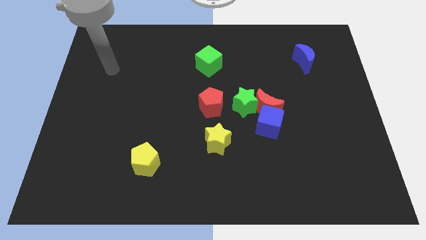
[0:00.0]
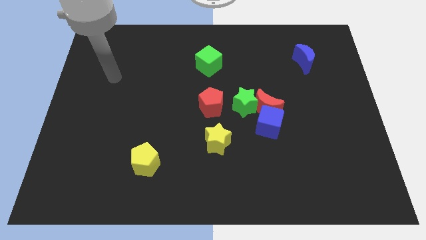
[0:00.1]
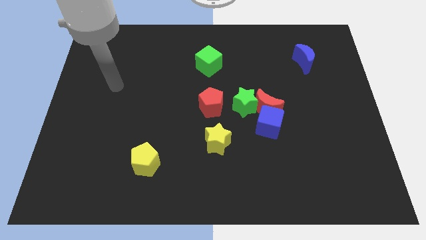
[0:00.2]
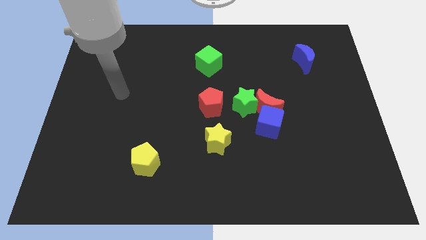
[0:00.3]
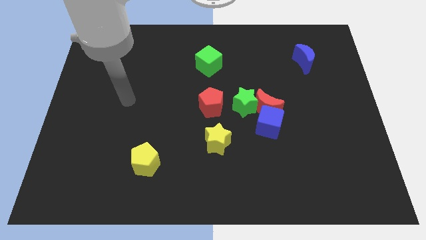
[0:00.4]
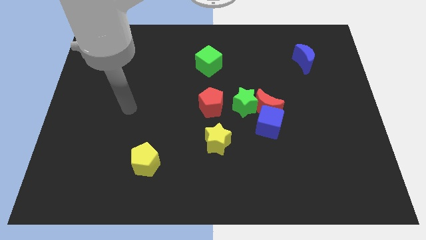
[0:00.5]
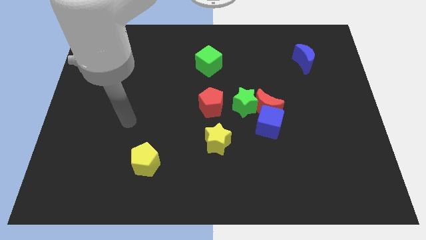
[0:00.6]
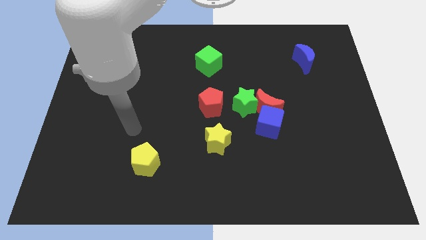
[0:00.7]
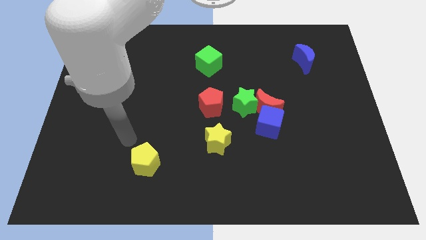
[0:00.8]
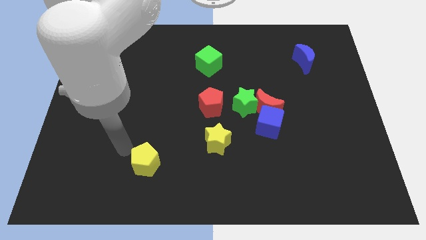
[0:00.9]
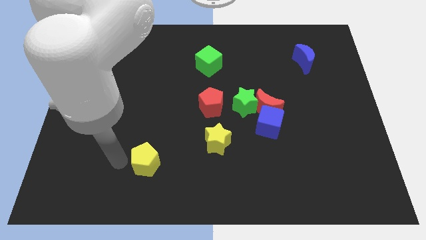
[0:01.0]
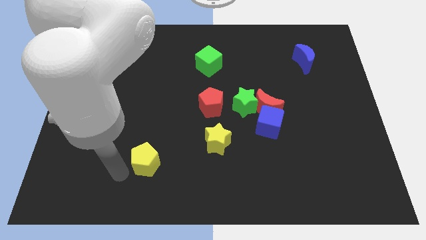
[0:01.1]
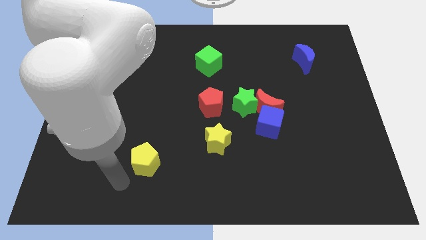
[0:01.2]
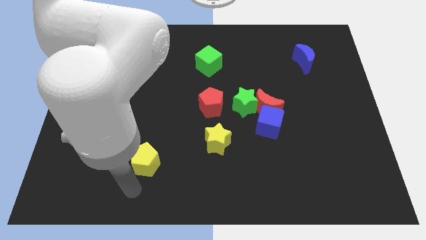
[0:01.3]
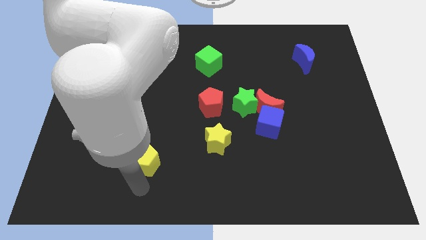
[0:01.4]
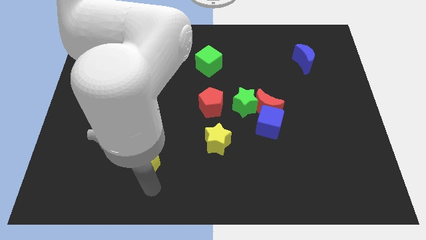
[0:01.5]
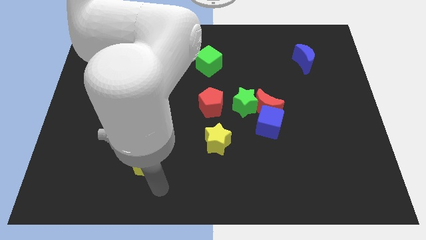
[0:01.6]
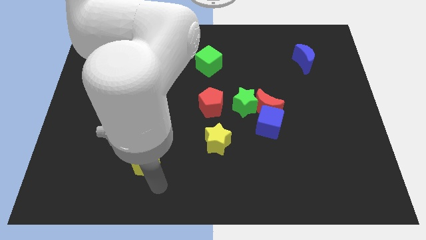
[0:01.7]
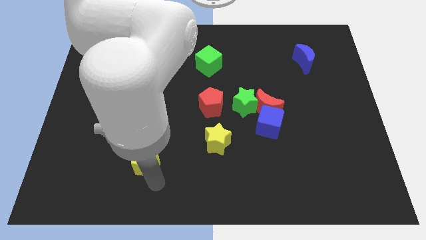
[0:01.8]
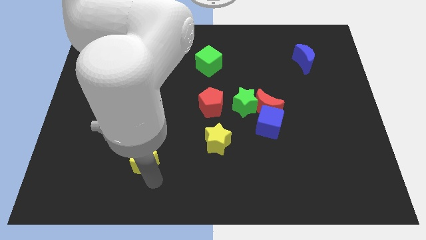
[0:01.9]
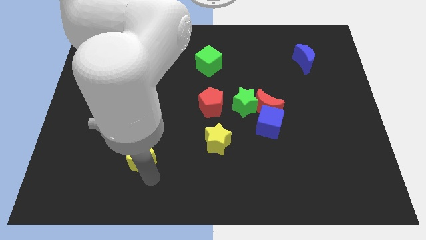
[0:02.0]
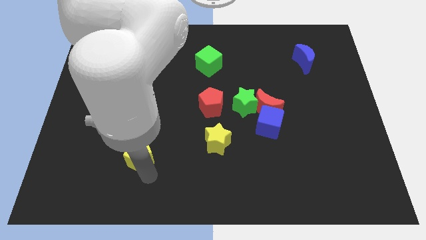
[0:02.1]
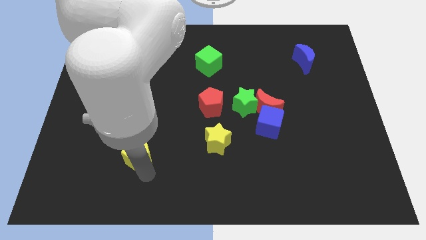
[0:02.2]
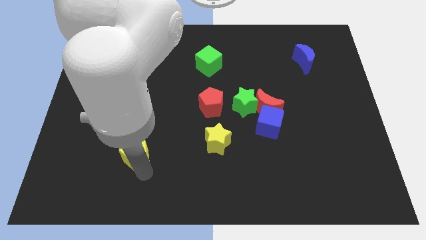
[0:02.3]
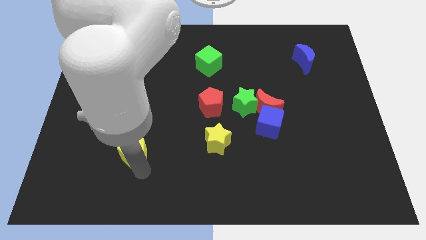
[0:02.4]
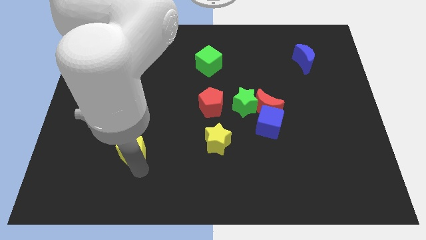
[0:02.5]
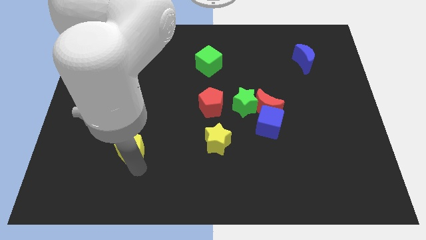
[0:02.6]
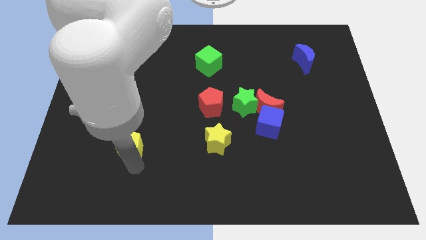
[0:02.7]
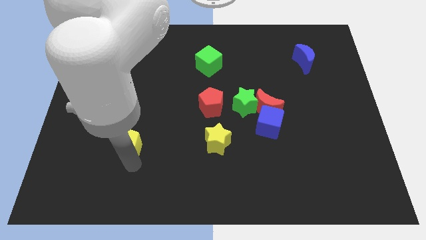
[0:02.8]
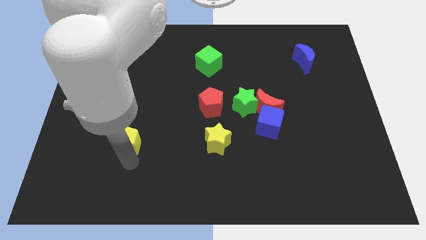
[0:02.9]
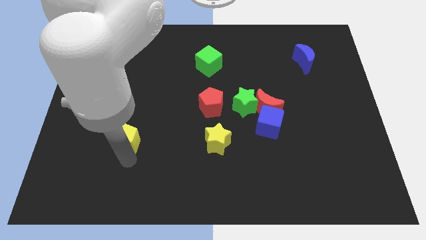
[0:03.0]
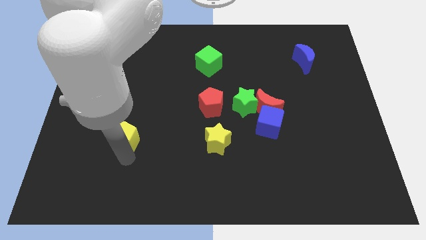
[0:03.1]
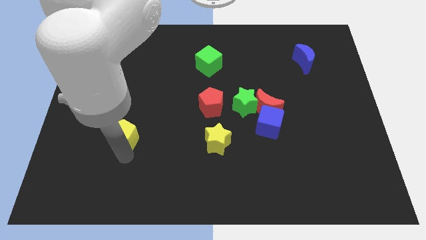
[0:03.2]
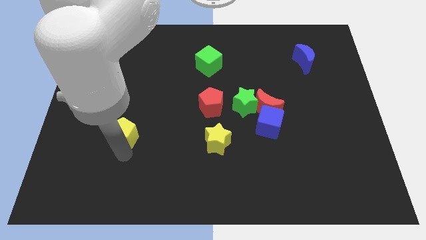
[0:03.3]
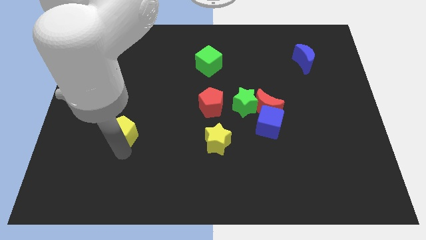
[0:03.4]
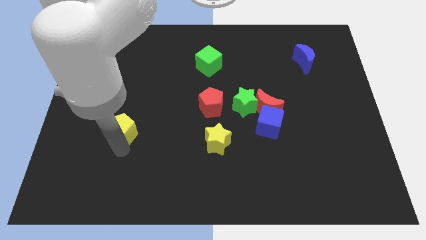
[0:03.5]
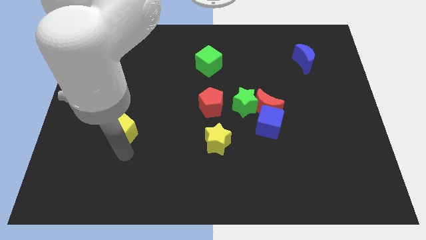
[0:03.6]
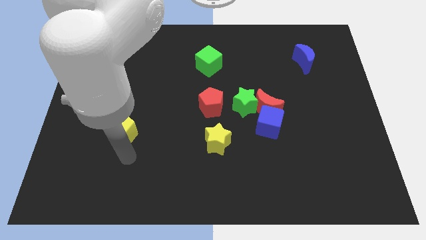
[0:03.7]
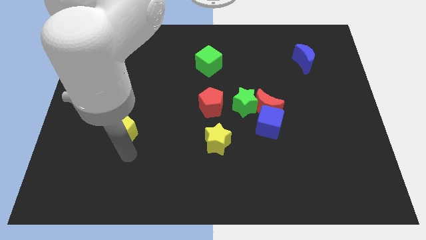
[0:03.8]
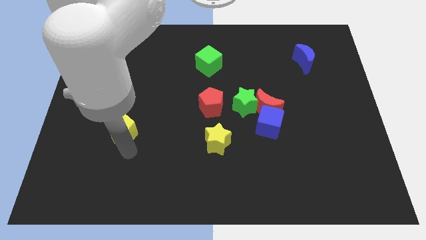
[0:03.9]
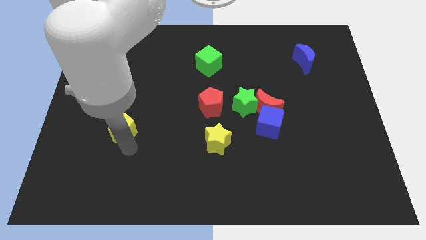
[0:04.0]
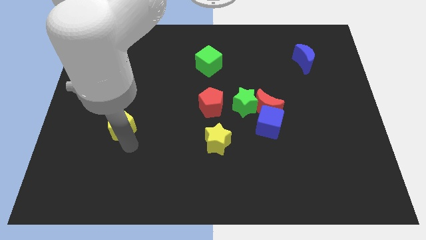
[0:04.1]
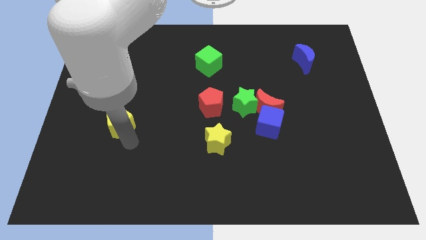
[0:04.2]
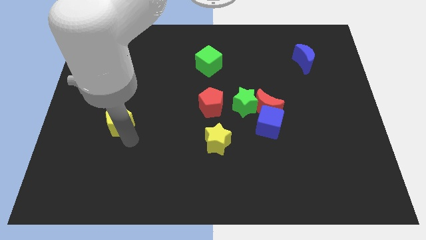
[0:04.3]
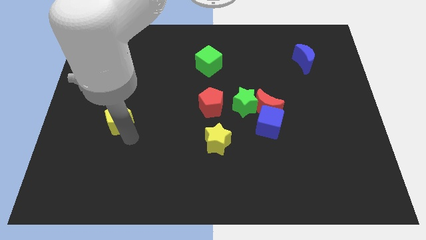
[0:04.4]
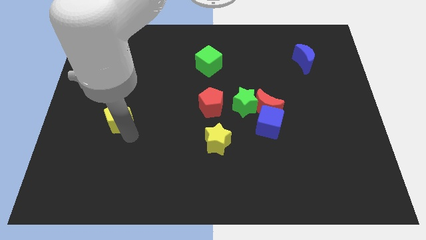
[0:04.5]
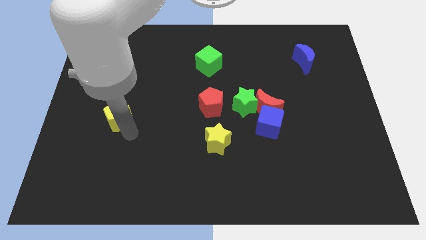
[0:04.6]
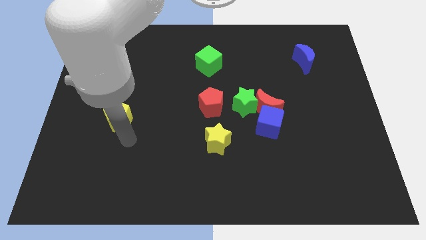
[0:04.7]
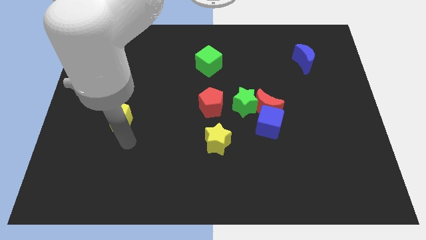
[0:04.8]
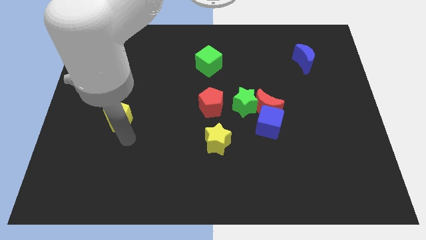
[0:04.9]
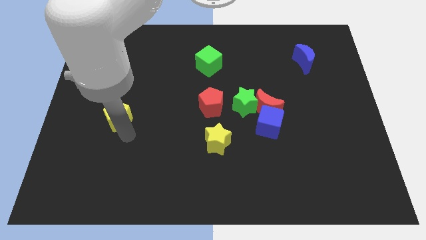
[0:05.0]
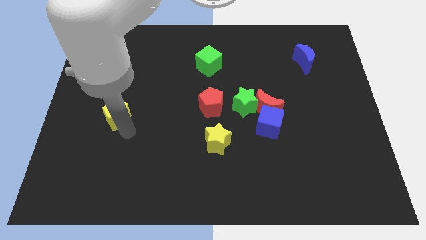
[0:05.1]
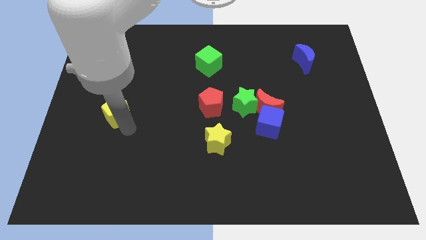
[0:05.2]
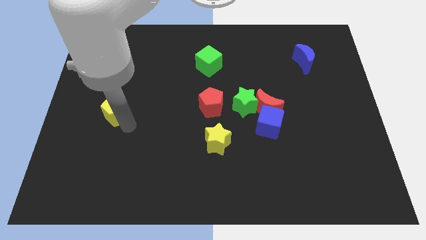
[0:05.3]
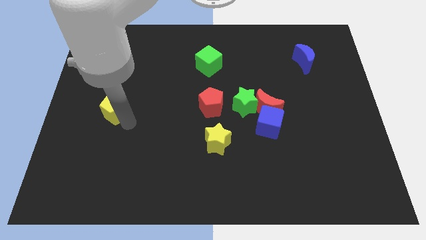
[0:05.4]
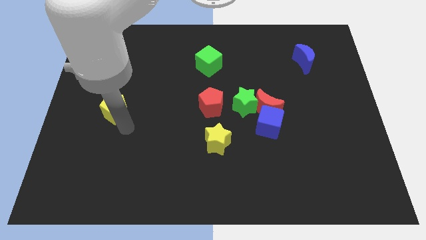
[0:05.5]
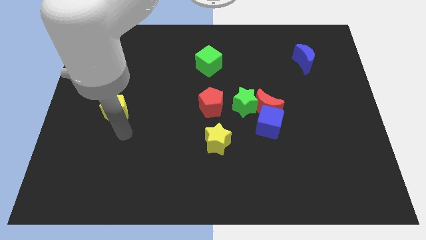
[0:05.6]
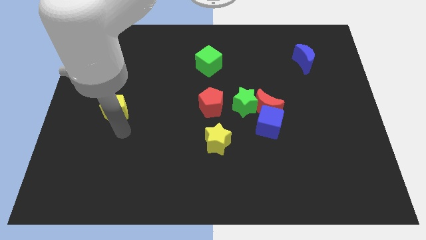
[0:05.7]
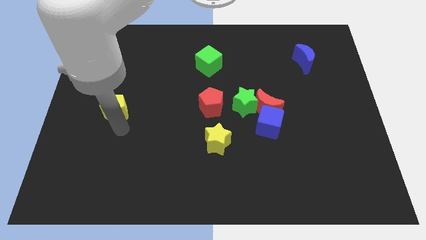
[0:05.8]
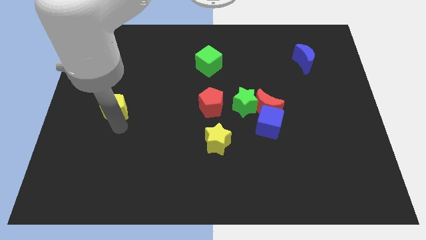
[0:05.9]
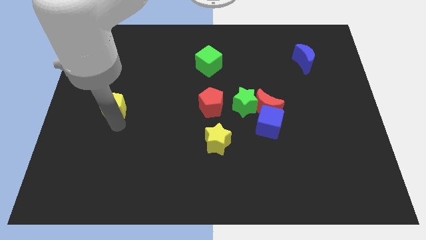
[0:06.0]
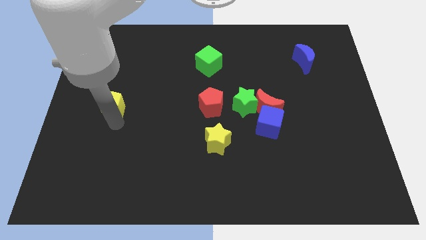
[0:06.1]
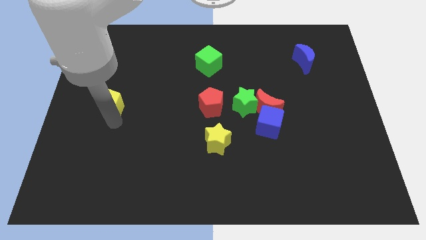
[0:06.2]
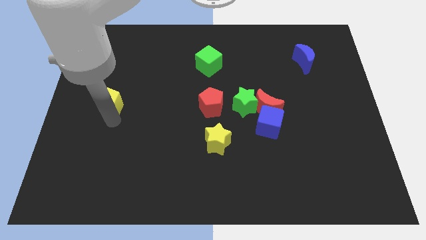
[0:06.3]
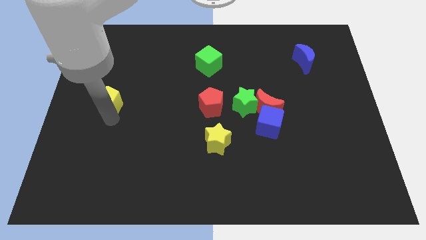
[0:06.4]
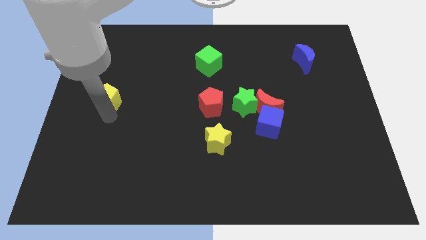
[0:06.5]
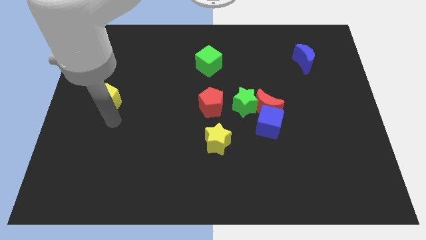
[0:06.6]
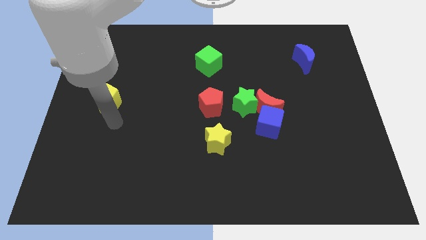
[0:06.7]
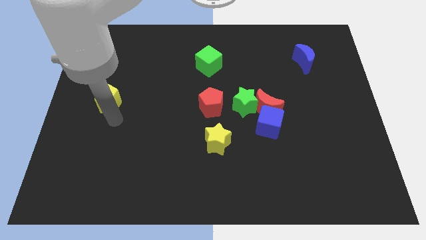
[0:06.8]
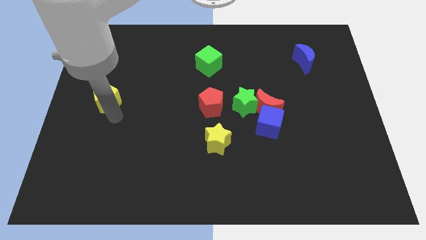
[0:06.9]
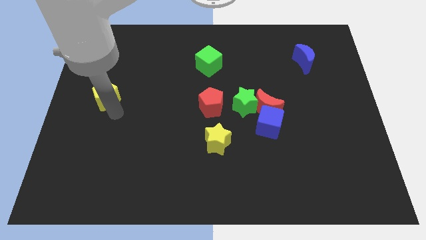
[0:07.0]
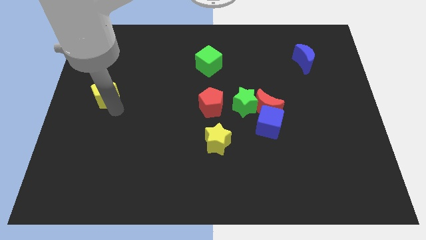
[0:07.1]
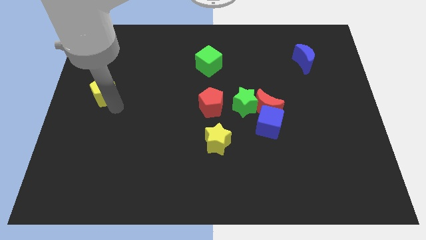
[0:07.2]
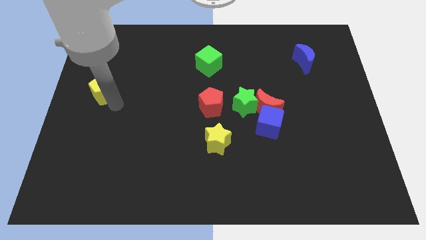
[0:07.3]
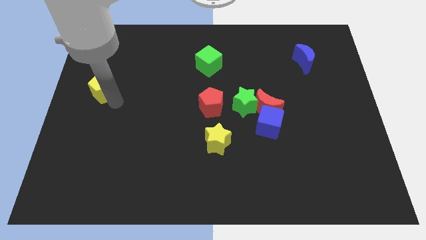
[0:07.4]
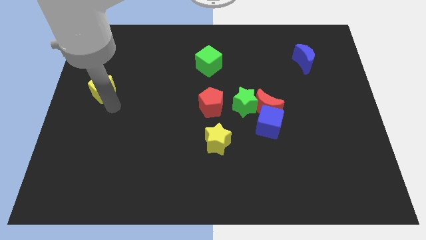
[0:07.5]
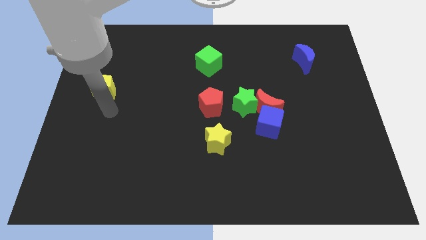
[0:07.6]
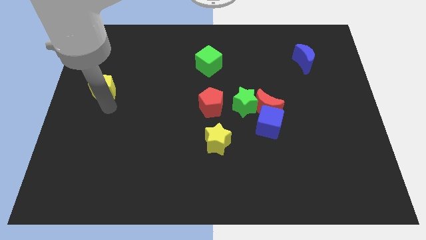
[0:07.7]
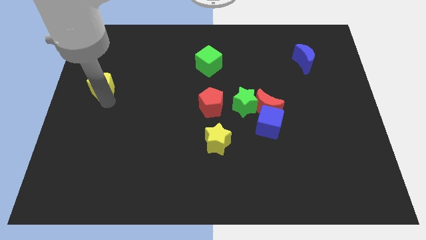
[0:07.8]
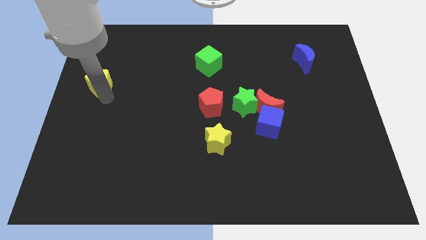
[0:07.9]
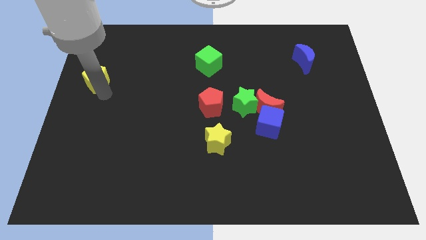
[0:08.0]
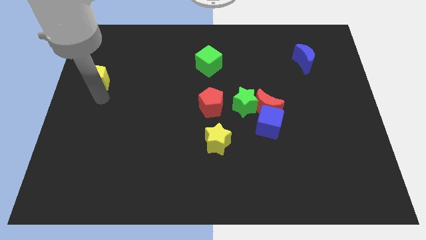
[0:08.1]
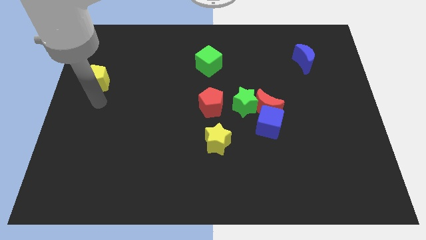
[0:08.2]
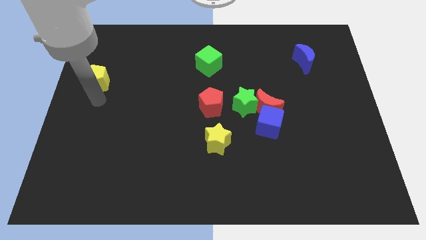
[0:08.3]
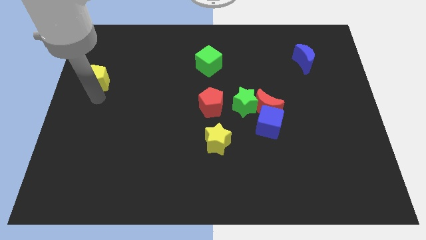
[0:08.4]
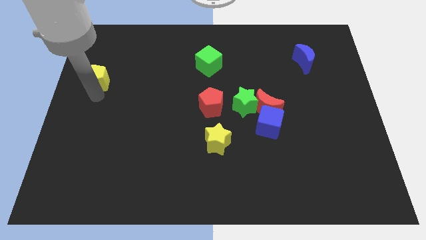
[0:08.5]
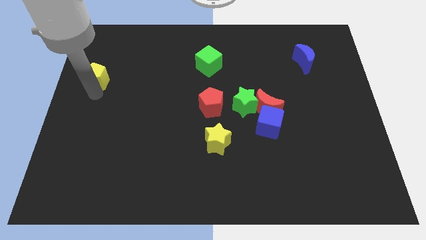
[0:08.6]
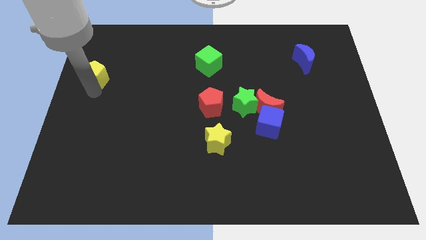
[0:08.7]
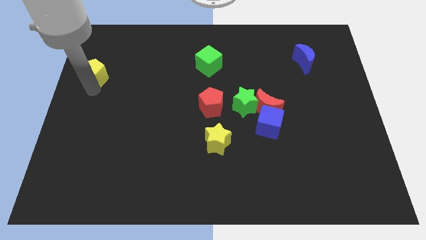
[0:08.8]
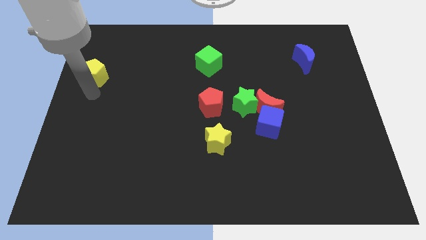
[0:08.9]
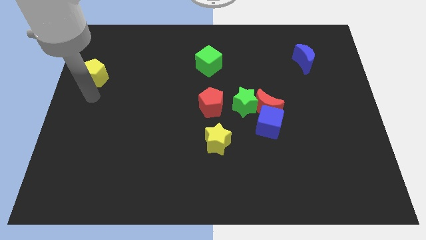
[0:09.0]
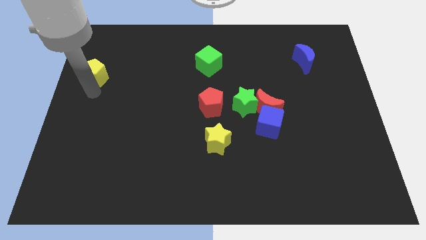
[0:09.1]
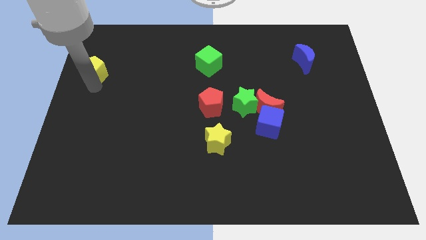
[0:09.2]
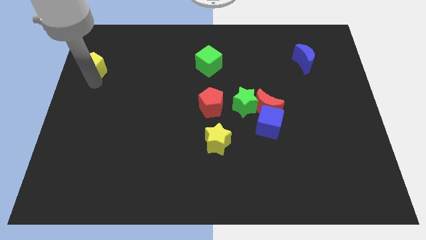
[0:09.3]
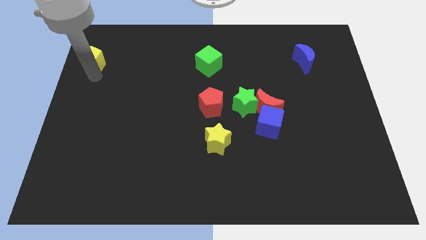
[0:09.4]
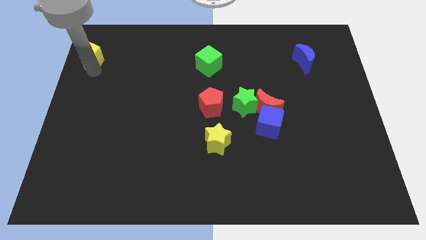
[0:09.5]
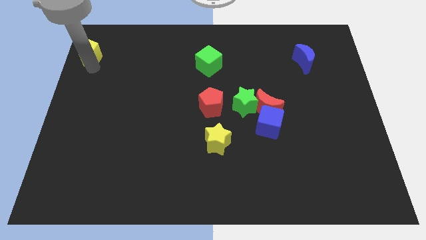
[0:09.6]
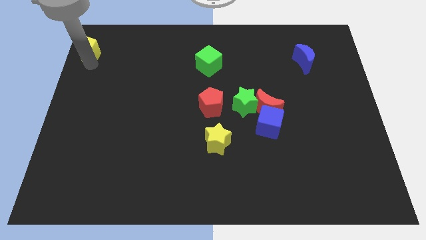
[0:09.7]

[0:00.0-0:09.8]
push the yellow pentagon to the top left of the board
